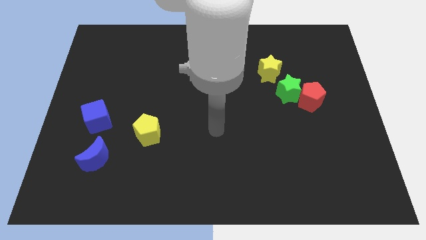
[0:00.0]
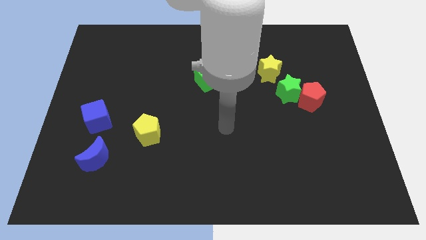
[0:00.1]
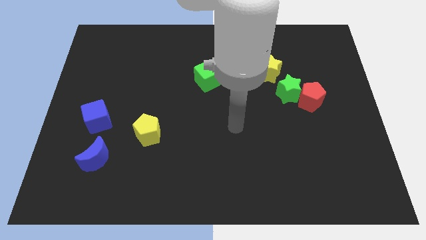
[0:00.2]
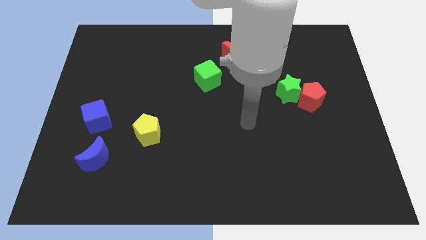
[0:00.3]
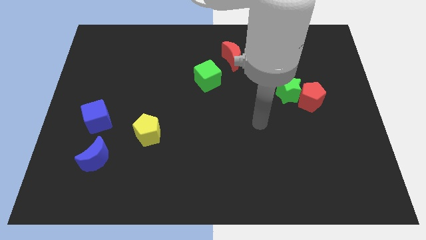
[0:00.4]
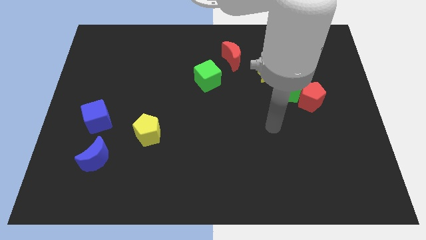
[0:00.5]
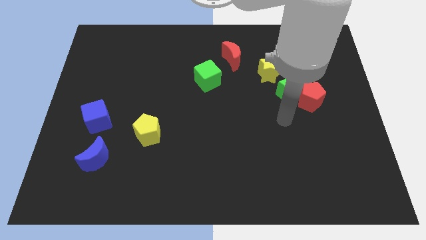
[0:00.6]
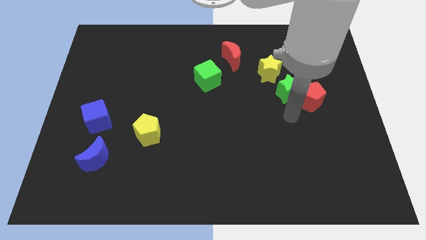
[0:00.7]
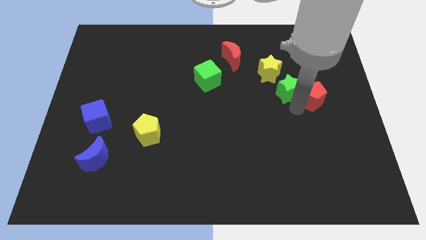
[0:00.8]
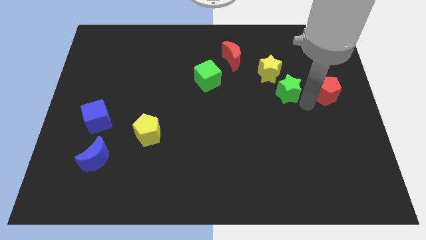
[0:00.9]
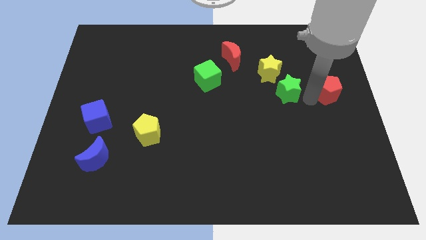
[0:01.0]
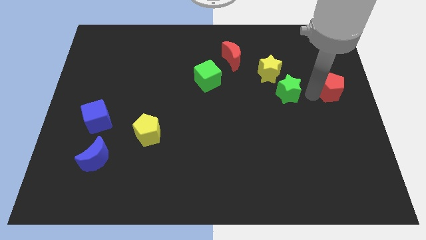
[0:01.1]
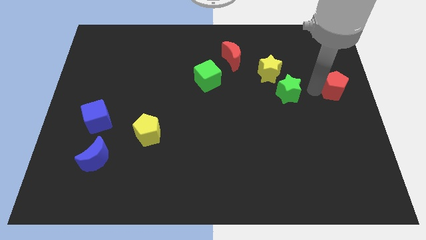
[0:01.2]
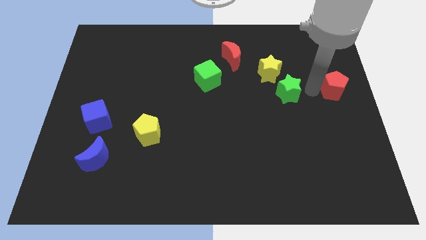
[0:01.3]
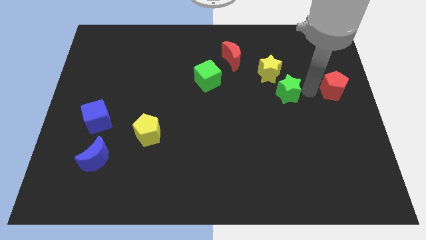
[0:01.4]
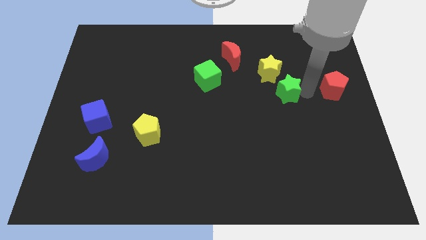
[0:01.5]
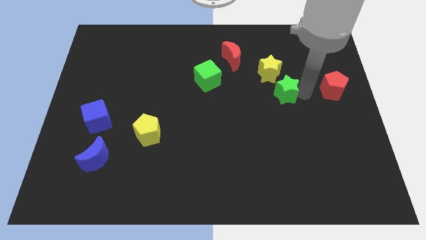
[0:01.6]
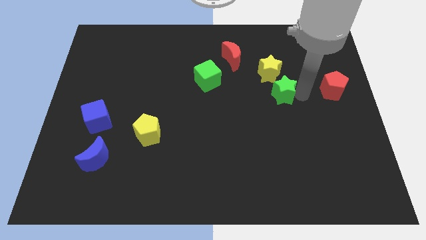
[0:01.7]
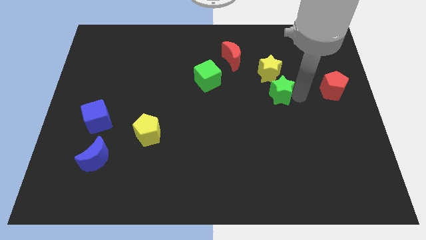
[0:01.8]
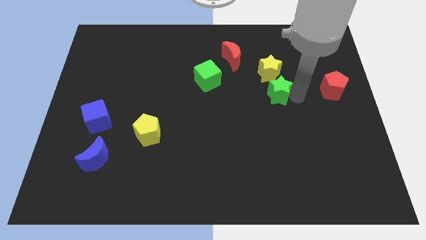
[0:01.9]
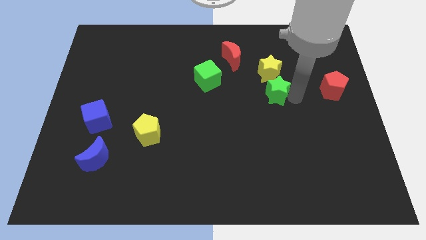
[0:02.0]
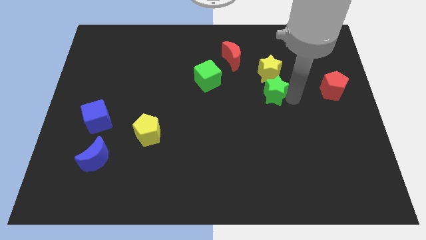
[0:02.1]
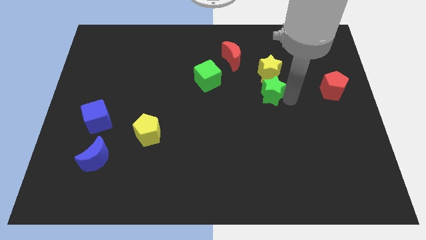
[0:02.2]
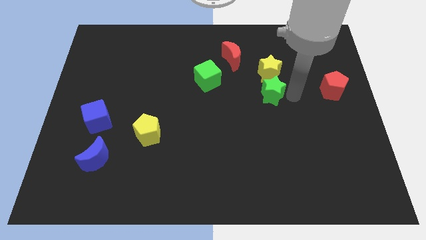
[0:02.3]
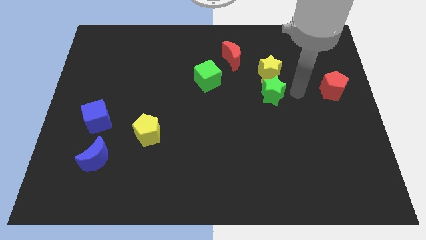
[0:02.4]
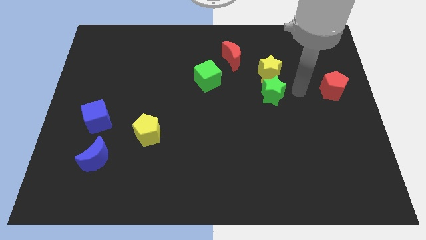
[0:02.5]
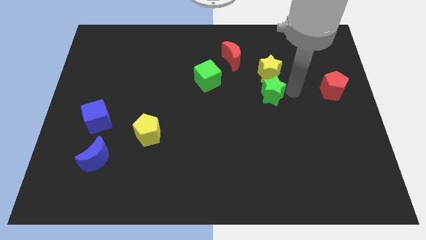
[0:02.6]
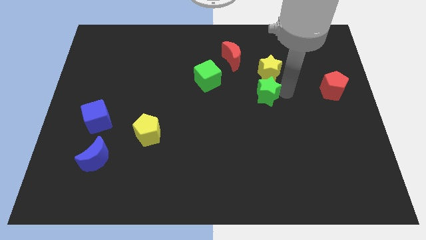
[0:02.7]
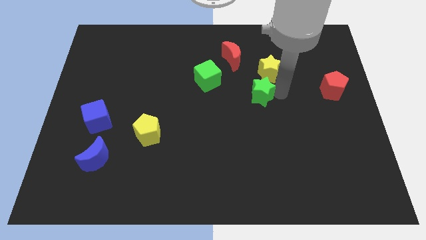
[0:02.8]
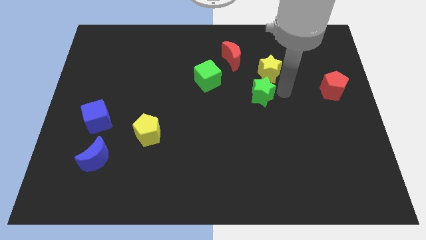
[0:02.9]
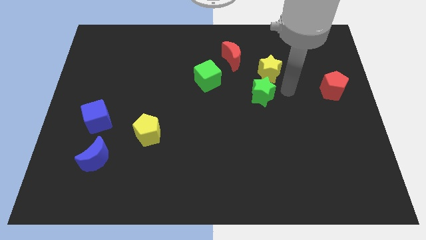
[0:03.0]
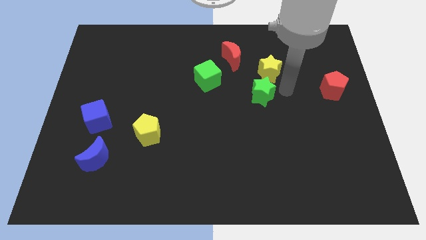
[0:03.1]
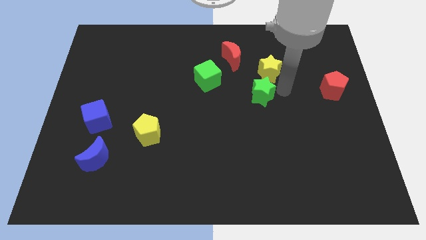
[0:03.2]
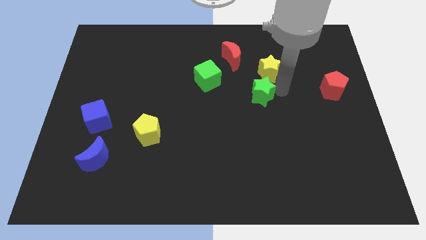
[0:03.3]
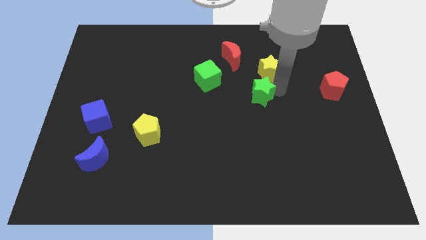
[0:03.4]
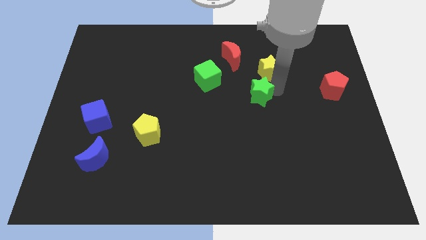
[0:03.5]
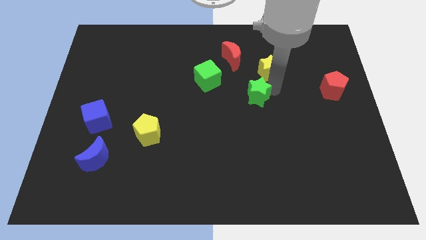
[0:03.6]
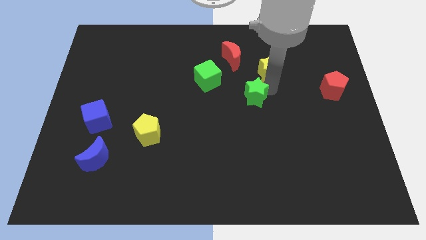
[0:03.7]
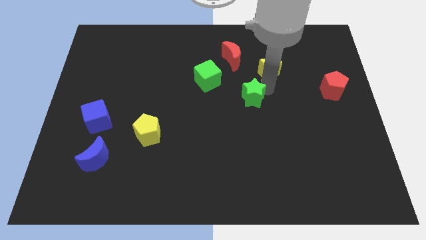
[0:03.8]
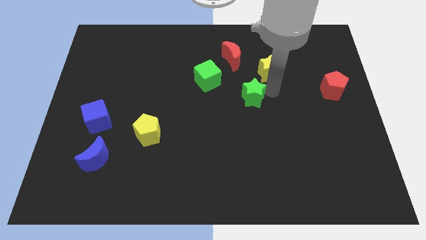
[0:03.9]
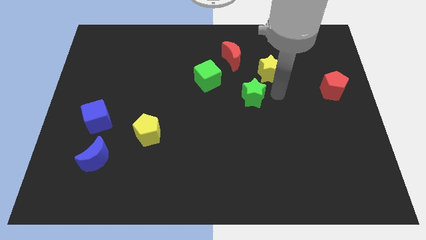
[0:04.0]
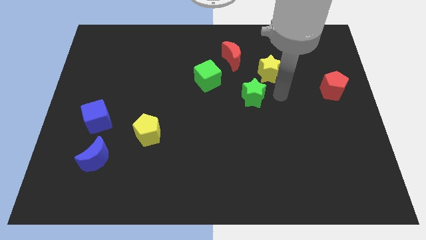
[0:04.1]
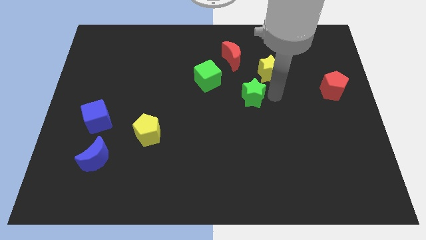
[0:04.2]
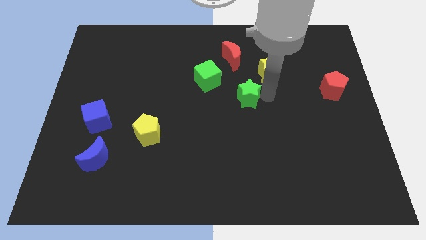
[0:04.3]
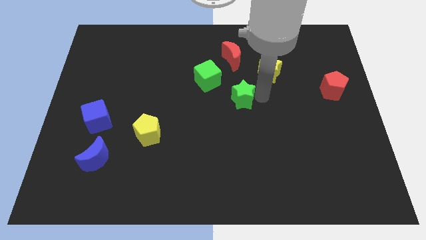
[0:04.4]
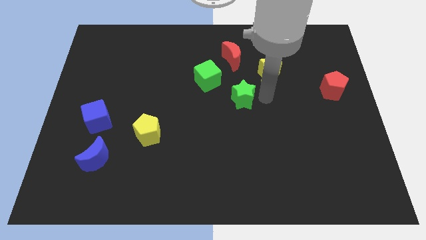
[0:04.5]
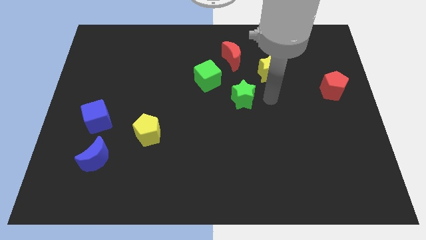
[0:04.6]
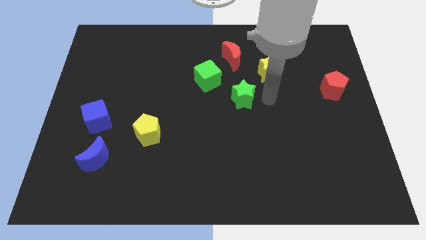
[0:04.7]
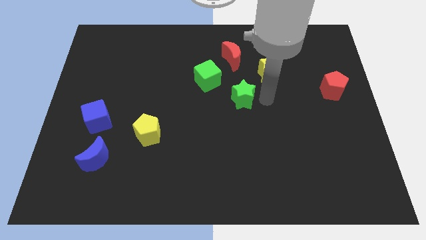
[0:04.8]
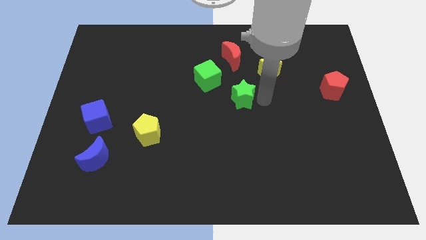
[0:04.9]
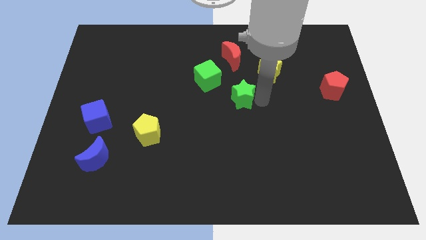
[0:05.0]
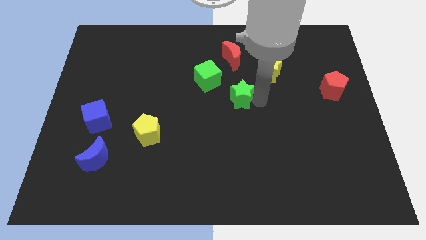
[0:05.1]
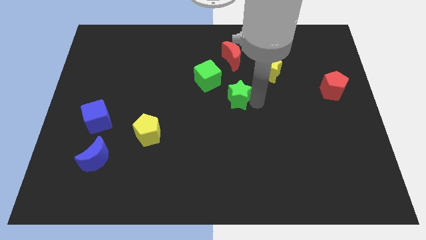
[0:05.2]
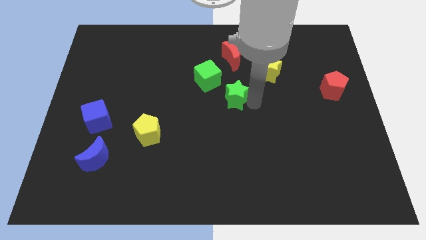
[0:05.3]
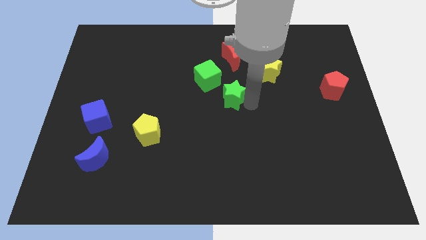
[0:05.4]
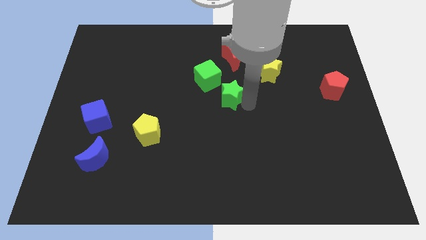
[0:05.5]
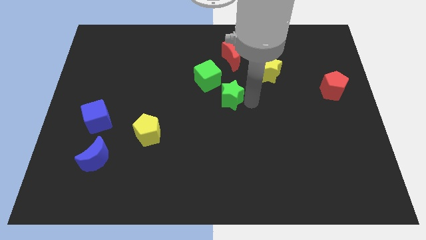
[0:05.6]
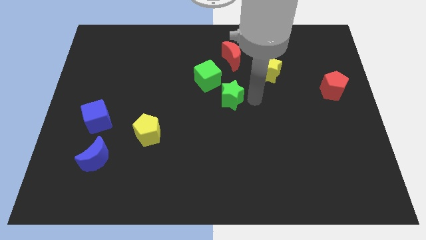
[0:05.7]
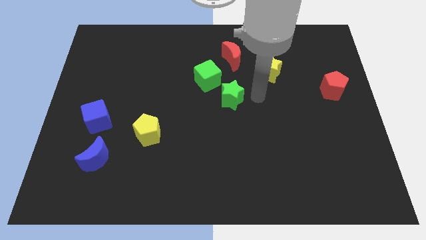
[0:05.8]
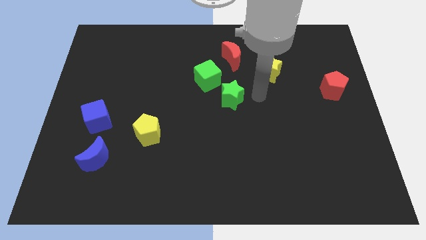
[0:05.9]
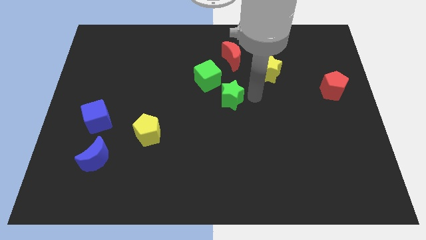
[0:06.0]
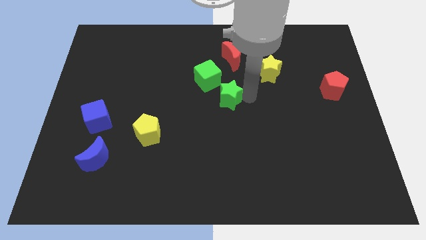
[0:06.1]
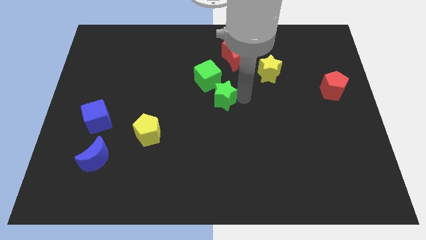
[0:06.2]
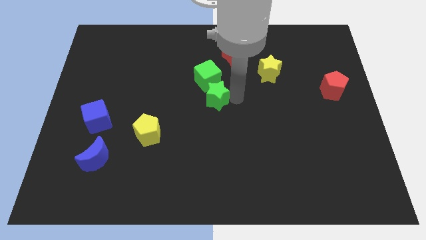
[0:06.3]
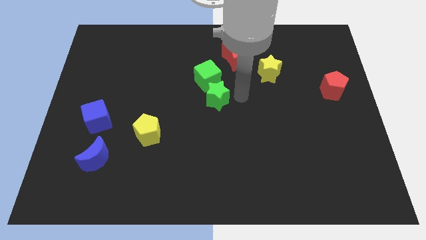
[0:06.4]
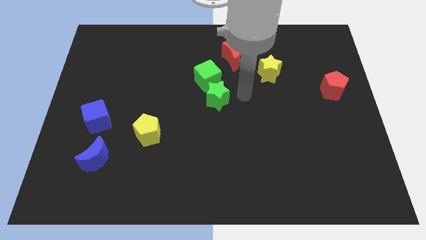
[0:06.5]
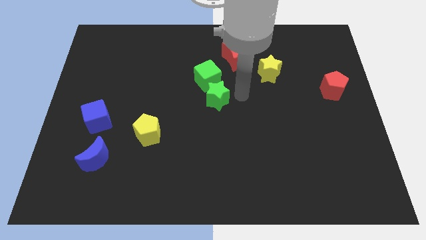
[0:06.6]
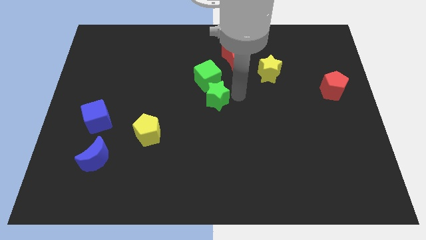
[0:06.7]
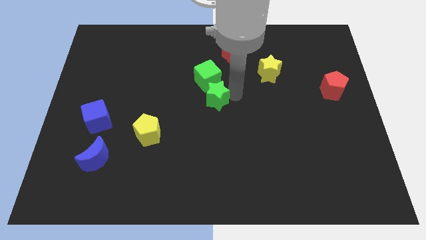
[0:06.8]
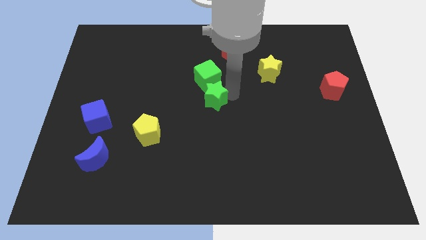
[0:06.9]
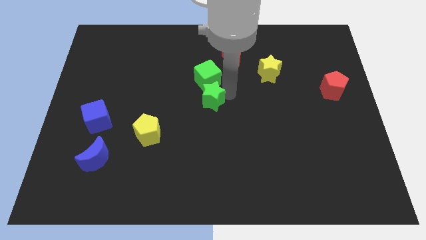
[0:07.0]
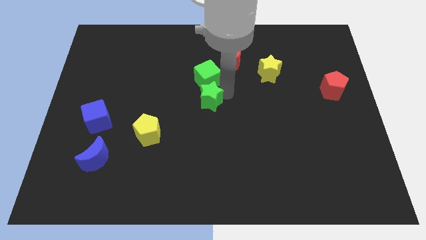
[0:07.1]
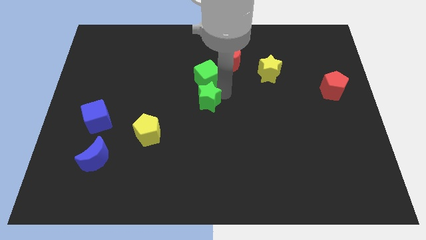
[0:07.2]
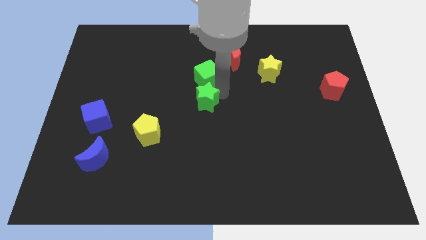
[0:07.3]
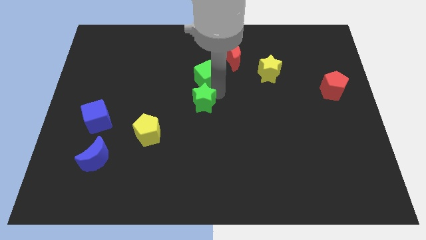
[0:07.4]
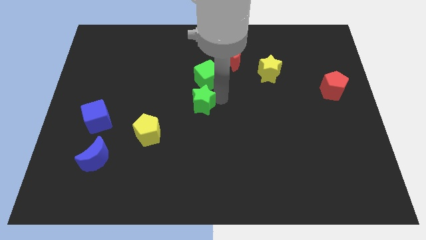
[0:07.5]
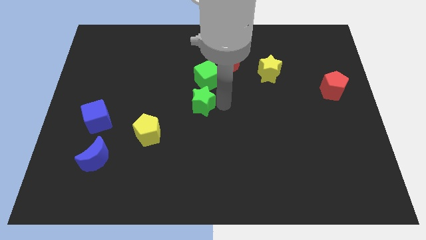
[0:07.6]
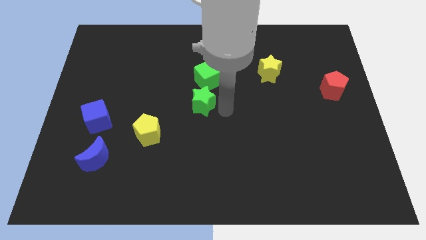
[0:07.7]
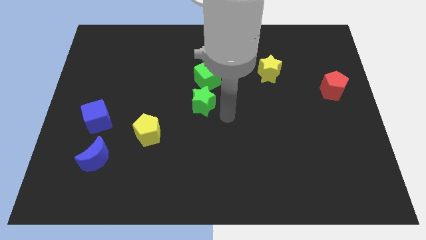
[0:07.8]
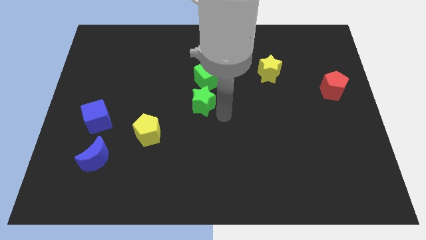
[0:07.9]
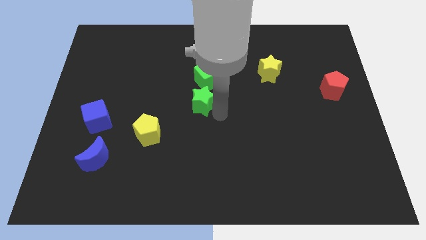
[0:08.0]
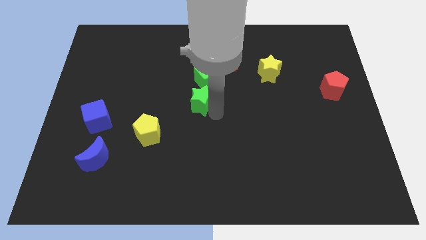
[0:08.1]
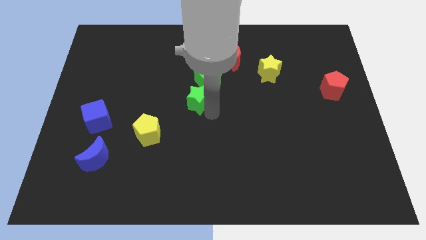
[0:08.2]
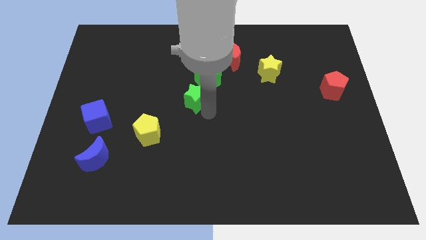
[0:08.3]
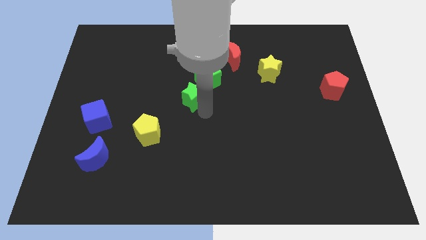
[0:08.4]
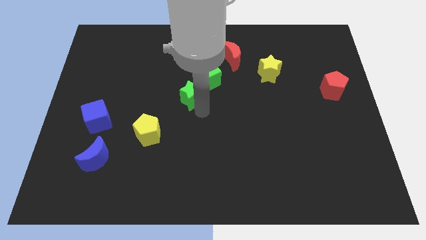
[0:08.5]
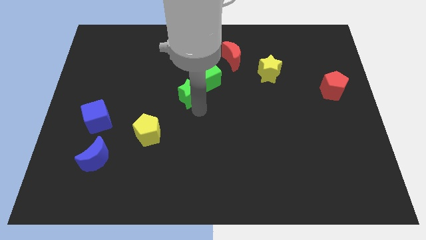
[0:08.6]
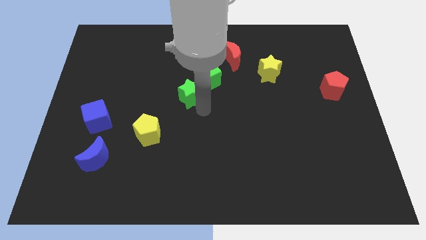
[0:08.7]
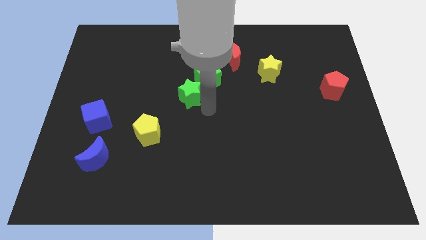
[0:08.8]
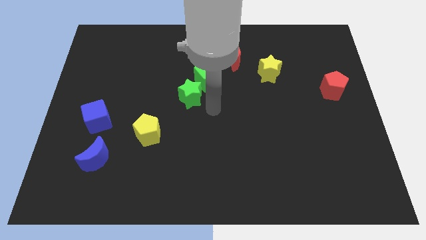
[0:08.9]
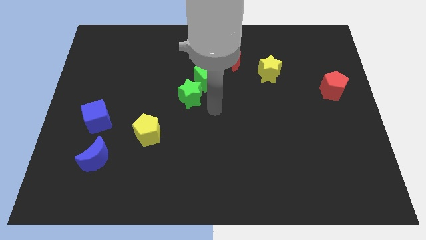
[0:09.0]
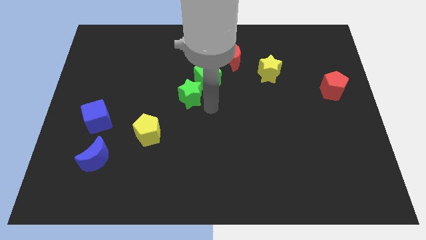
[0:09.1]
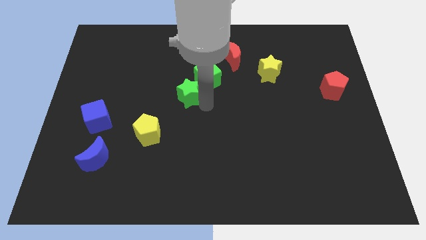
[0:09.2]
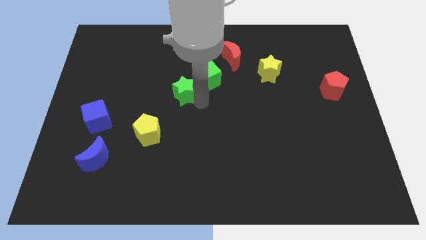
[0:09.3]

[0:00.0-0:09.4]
move the green star to the left of the green cube
